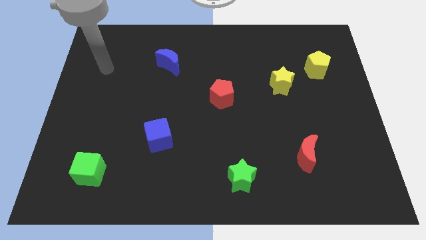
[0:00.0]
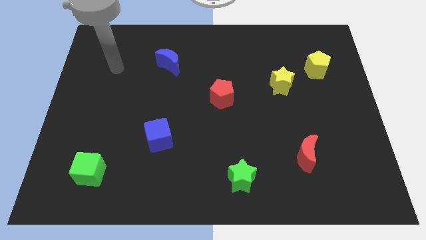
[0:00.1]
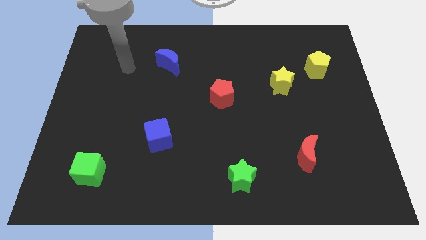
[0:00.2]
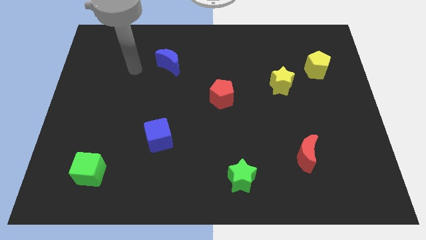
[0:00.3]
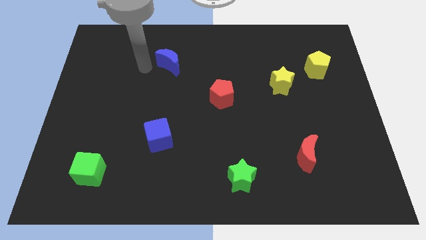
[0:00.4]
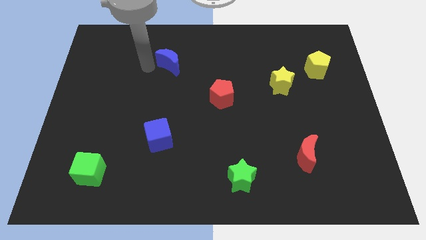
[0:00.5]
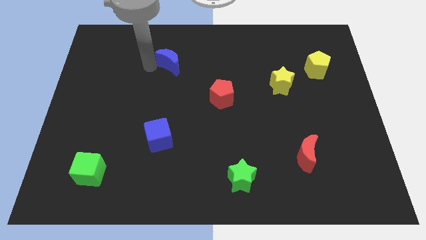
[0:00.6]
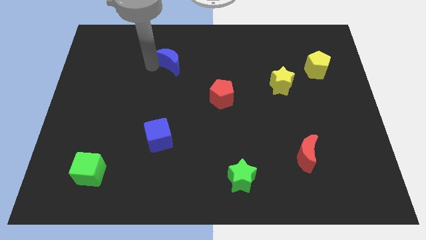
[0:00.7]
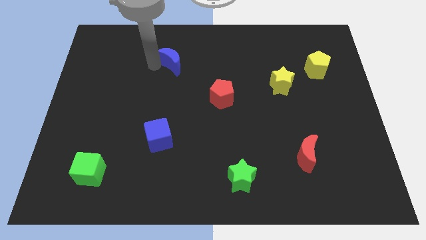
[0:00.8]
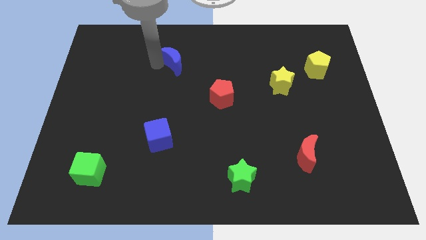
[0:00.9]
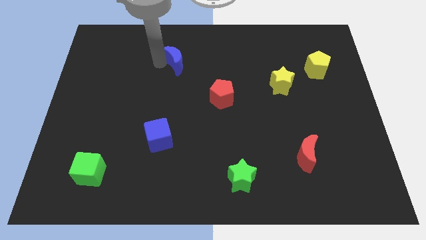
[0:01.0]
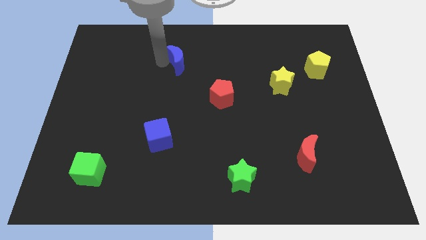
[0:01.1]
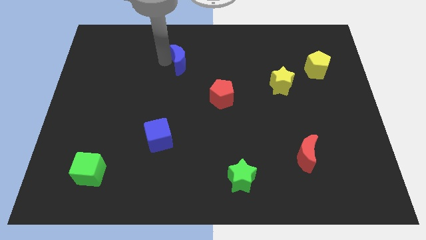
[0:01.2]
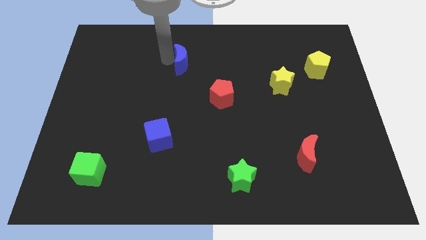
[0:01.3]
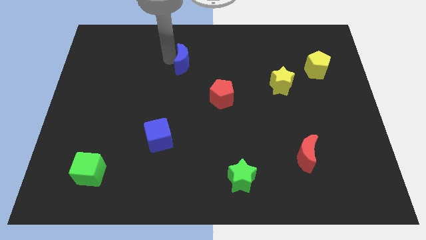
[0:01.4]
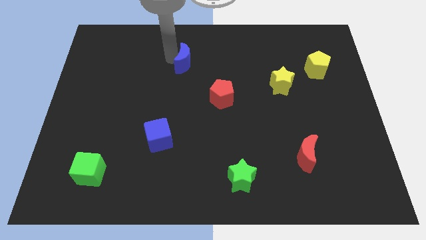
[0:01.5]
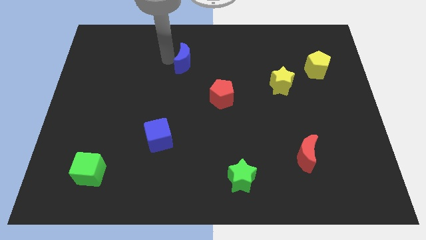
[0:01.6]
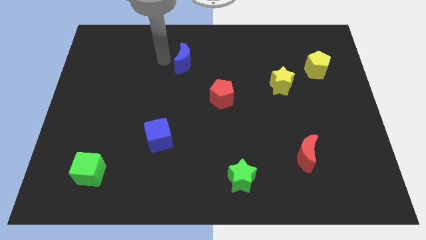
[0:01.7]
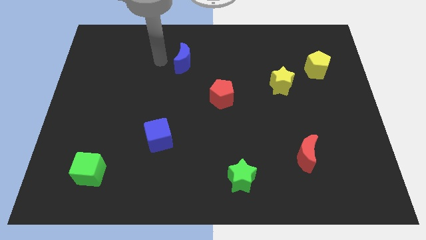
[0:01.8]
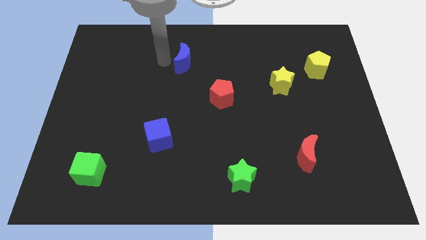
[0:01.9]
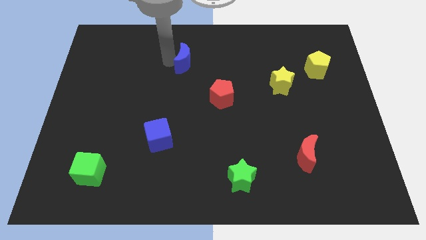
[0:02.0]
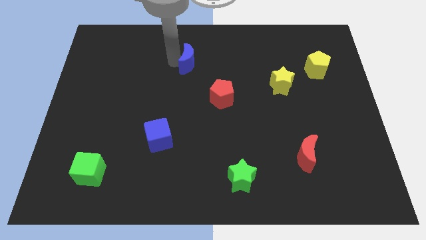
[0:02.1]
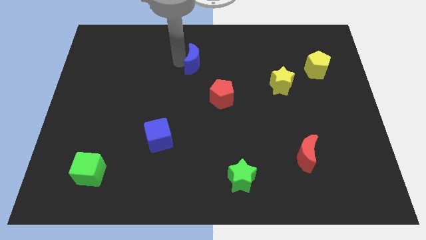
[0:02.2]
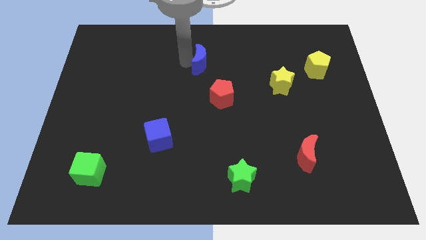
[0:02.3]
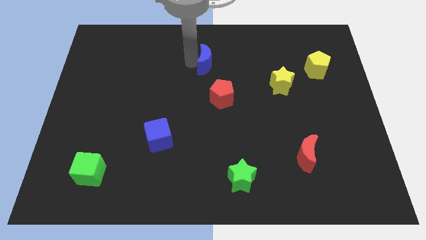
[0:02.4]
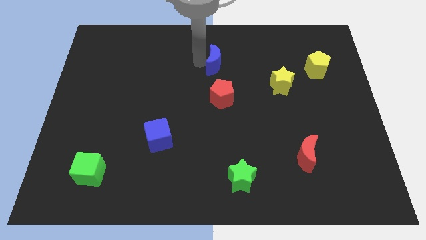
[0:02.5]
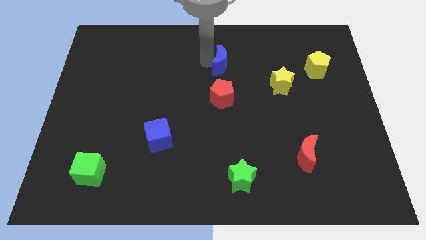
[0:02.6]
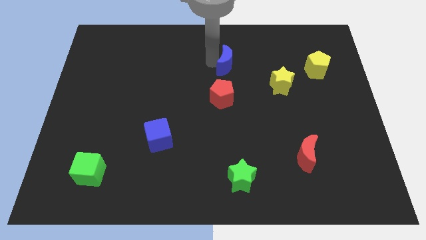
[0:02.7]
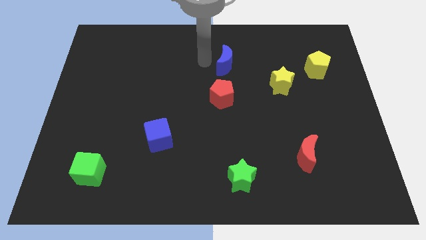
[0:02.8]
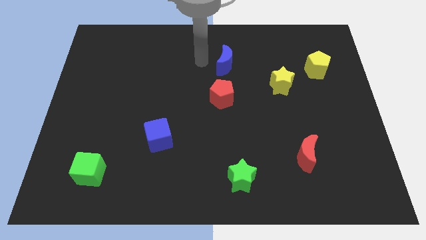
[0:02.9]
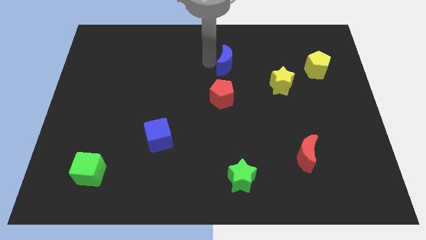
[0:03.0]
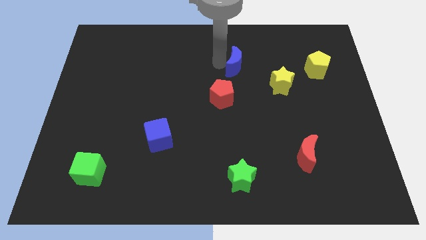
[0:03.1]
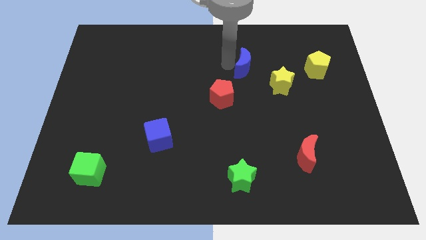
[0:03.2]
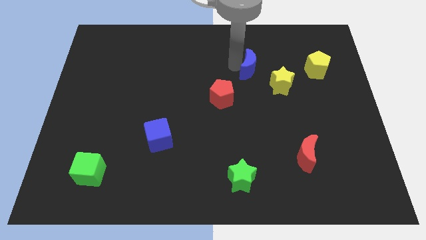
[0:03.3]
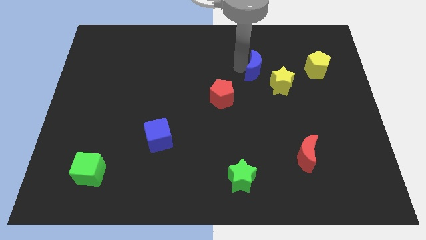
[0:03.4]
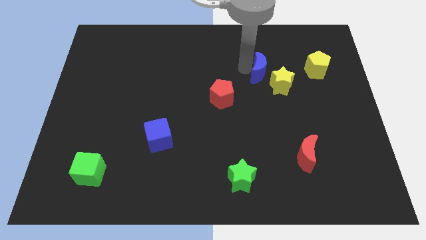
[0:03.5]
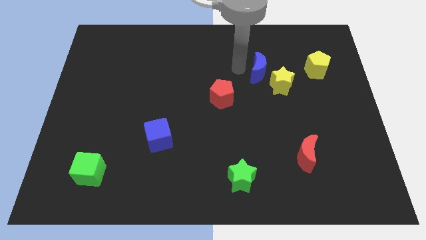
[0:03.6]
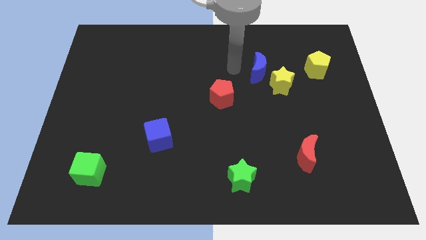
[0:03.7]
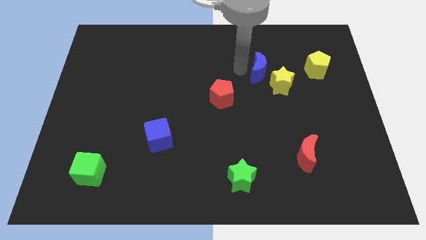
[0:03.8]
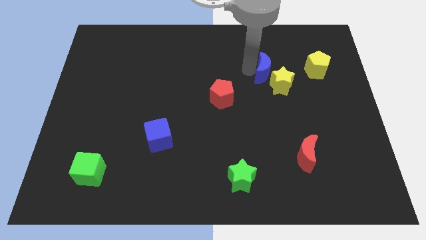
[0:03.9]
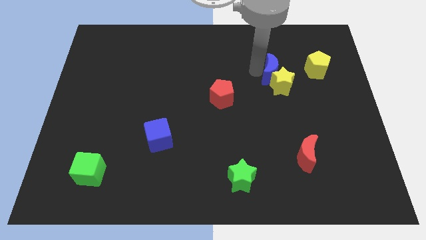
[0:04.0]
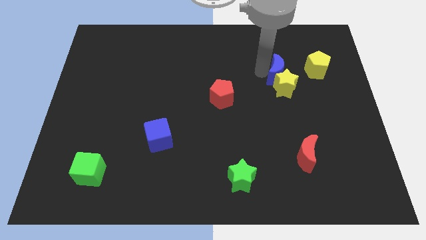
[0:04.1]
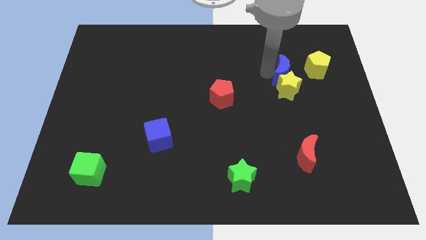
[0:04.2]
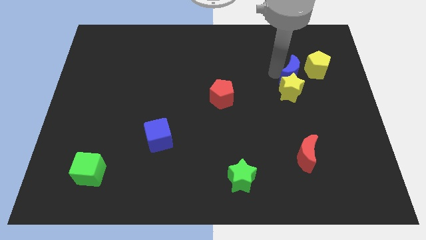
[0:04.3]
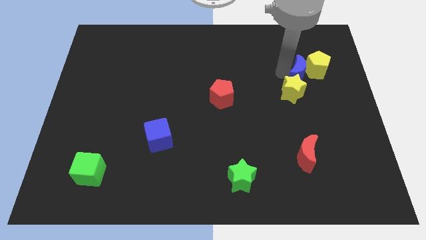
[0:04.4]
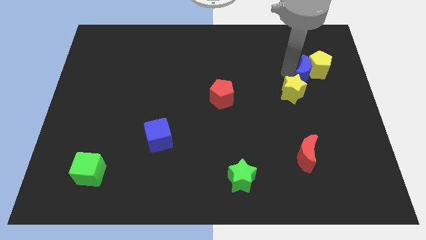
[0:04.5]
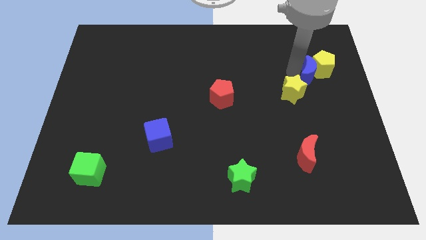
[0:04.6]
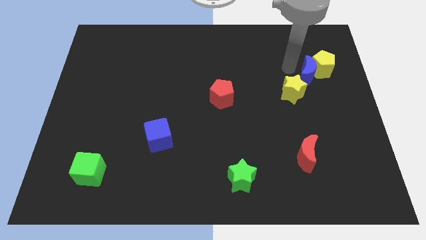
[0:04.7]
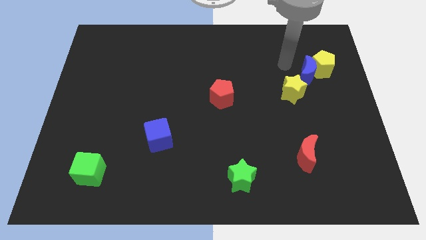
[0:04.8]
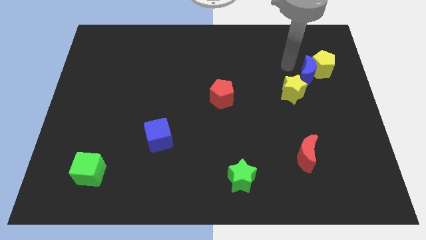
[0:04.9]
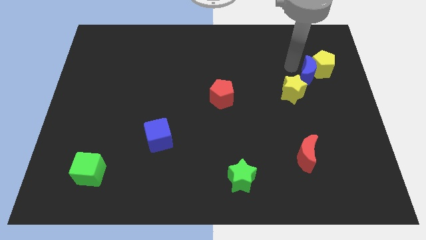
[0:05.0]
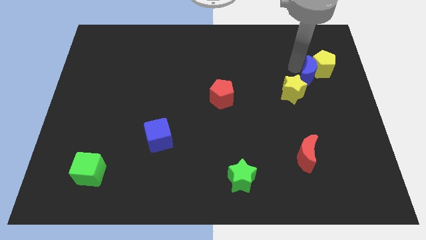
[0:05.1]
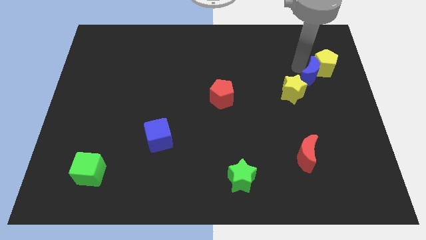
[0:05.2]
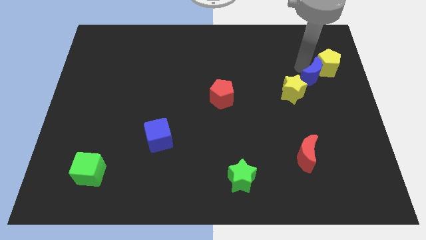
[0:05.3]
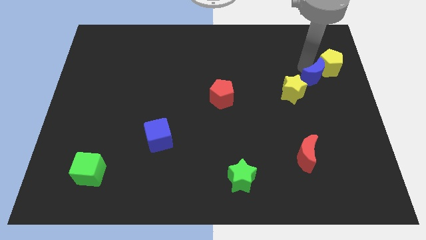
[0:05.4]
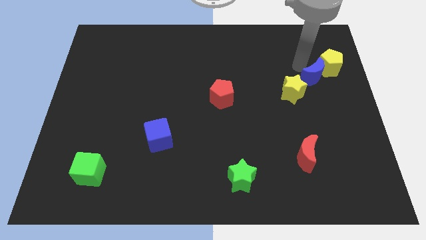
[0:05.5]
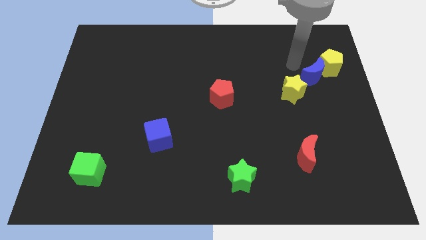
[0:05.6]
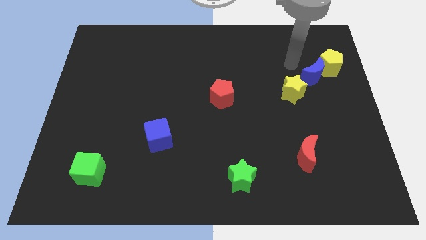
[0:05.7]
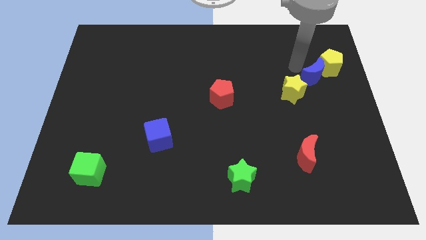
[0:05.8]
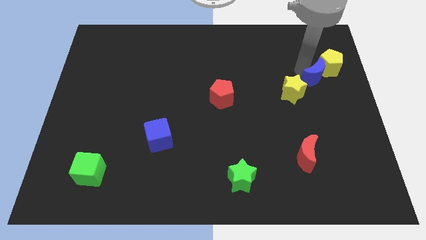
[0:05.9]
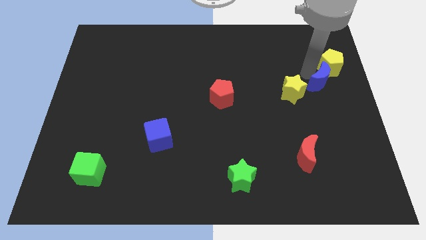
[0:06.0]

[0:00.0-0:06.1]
move the blue moon to the right side
